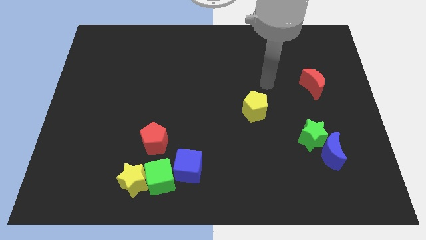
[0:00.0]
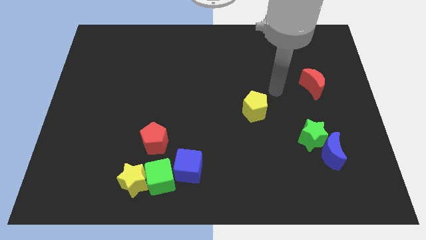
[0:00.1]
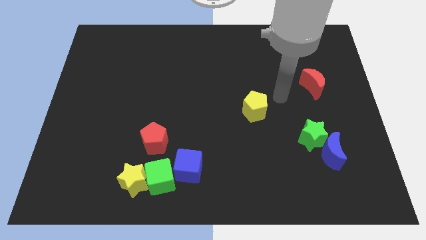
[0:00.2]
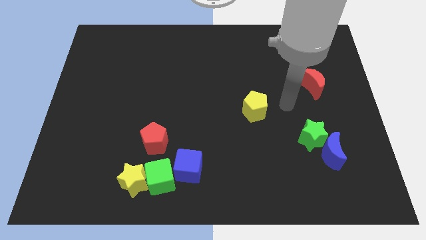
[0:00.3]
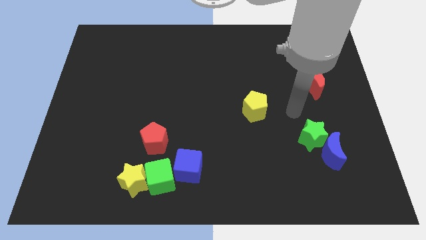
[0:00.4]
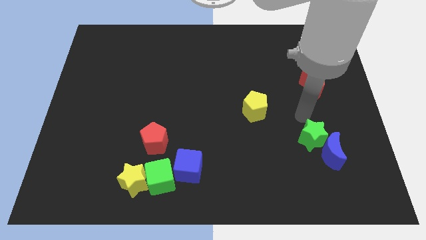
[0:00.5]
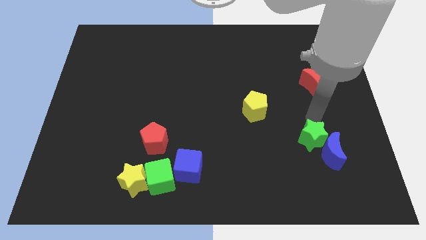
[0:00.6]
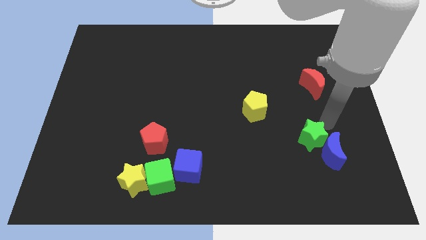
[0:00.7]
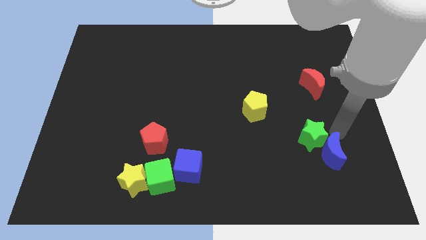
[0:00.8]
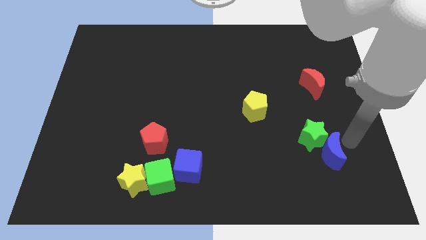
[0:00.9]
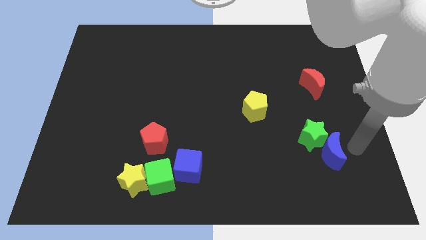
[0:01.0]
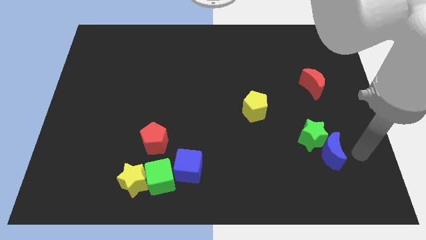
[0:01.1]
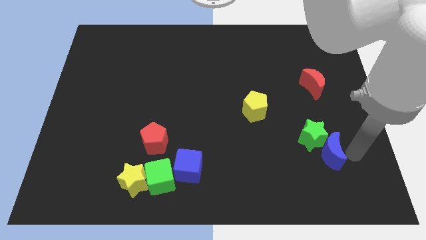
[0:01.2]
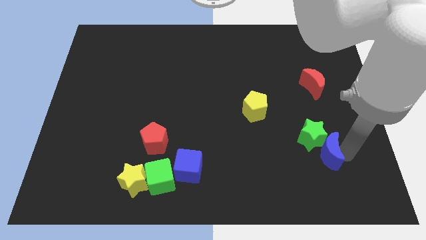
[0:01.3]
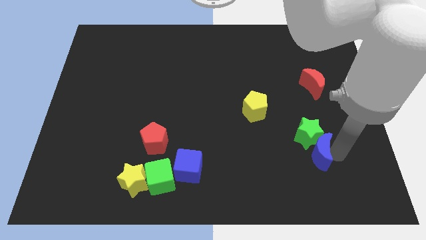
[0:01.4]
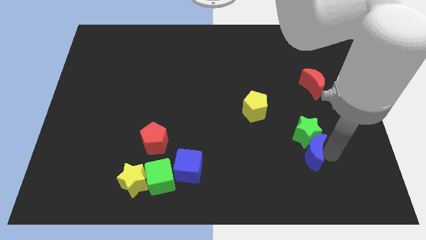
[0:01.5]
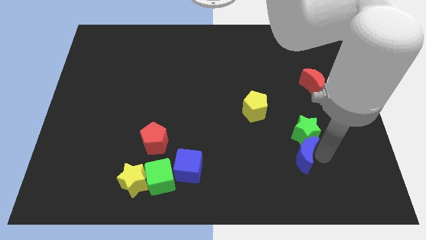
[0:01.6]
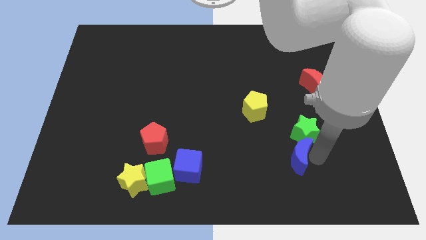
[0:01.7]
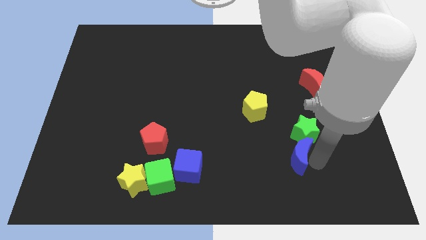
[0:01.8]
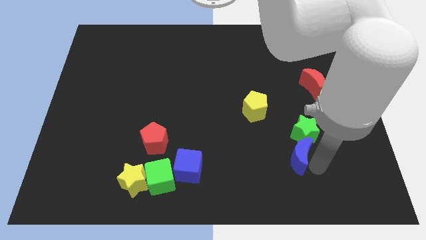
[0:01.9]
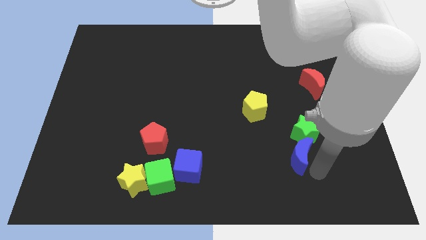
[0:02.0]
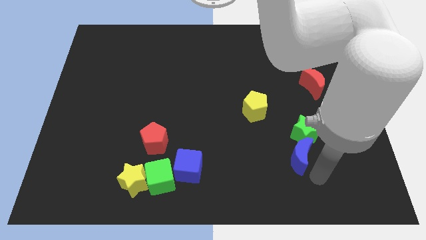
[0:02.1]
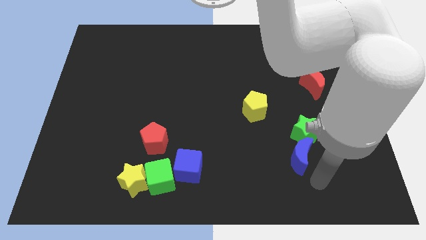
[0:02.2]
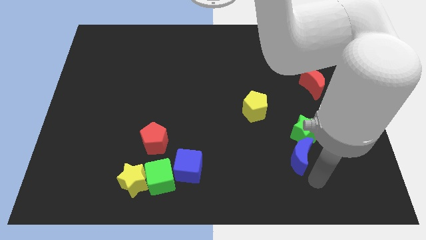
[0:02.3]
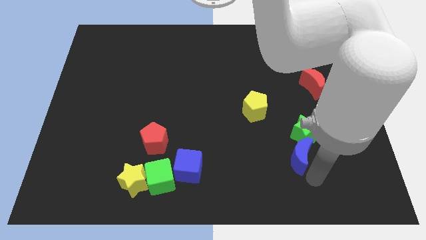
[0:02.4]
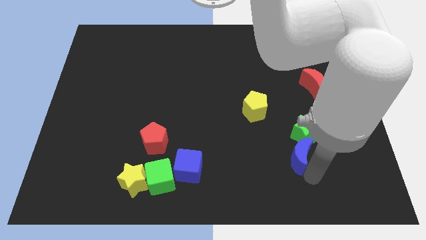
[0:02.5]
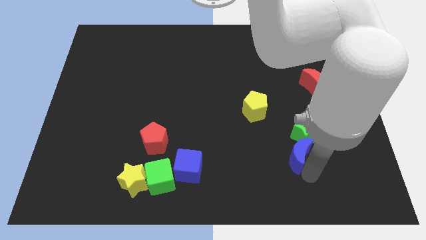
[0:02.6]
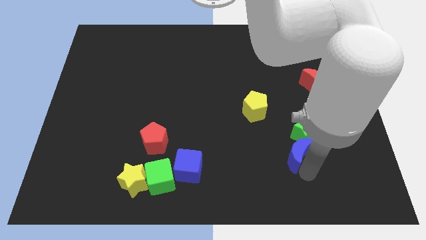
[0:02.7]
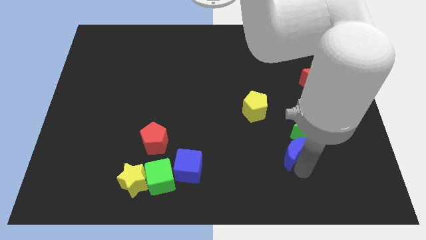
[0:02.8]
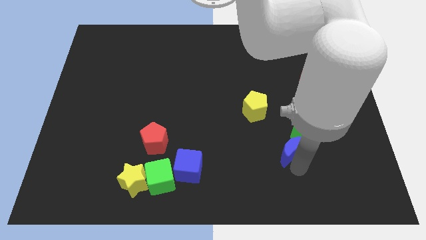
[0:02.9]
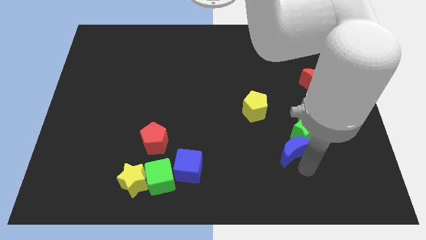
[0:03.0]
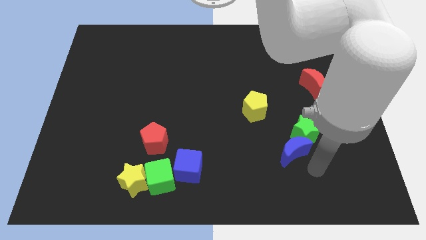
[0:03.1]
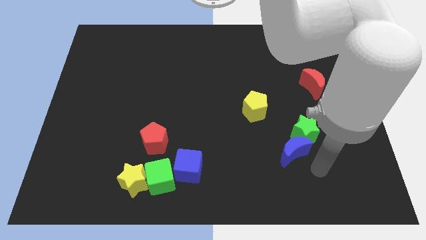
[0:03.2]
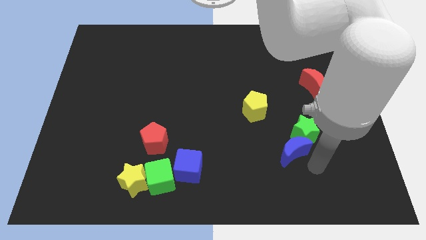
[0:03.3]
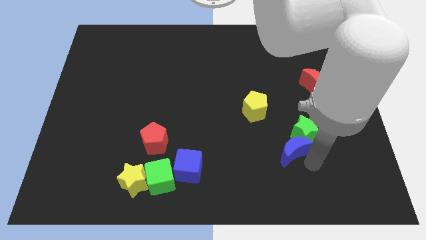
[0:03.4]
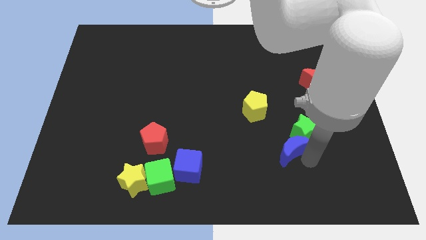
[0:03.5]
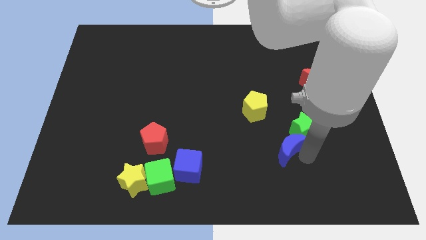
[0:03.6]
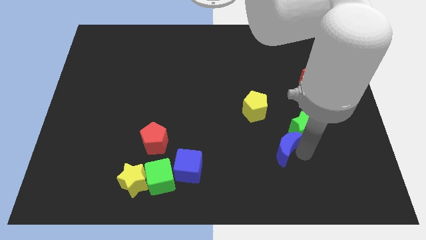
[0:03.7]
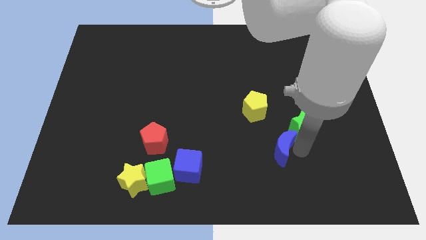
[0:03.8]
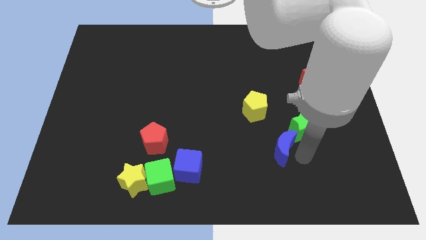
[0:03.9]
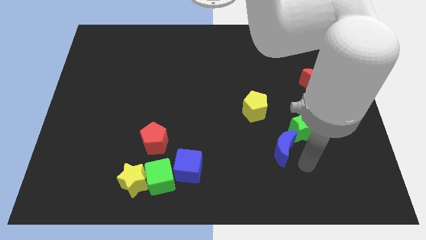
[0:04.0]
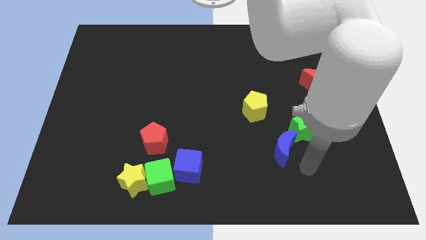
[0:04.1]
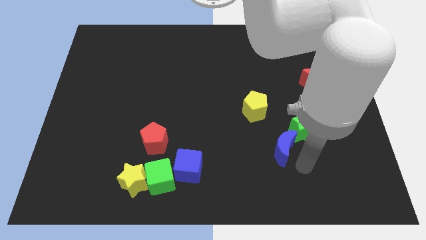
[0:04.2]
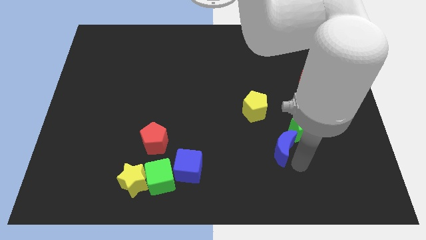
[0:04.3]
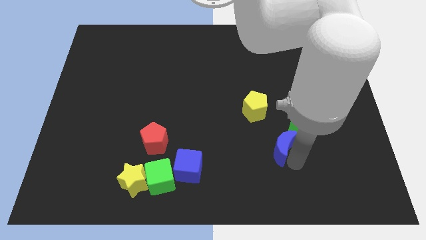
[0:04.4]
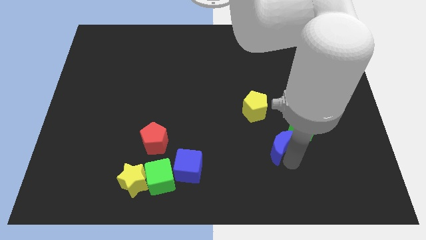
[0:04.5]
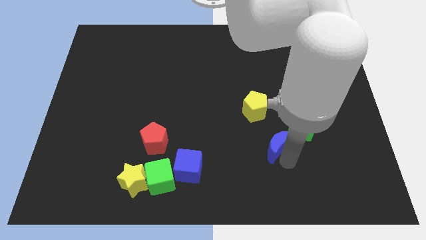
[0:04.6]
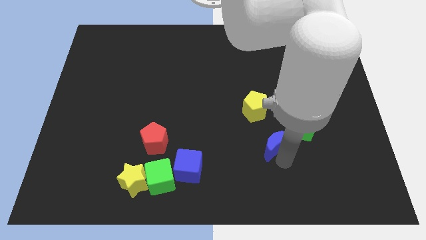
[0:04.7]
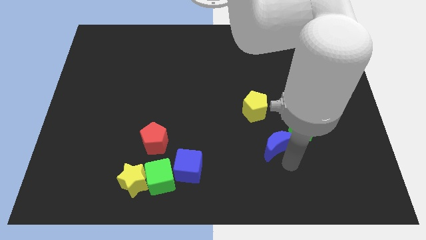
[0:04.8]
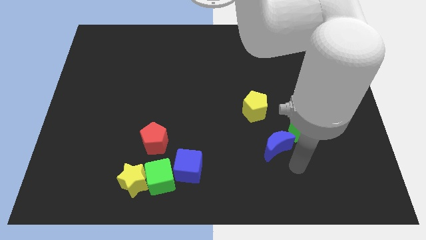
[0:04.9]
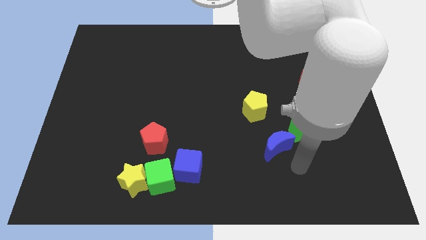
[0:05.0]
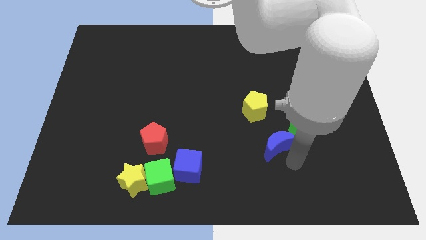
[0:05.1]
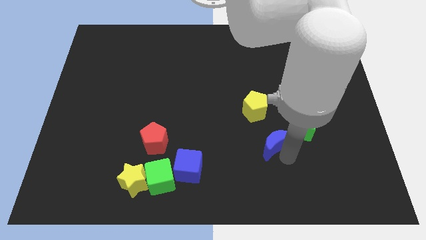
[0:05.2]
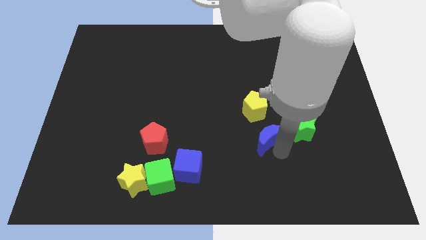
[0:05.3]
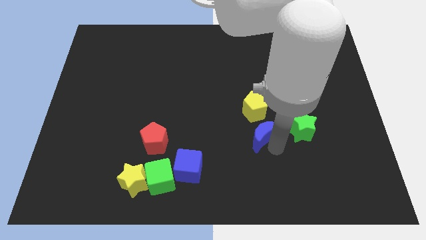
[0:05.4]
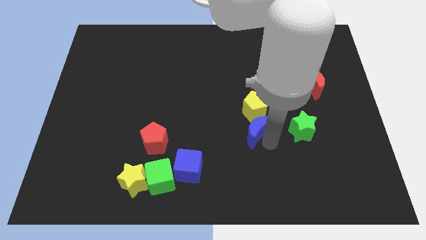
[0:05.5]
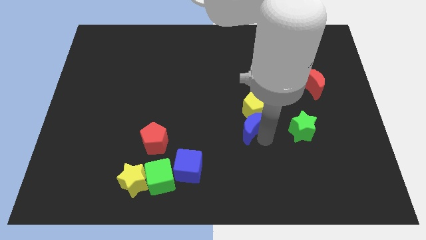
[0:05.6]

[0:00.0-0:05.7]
move the blue moon to the center
